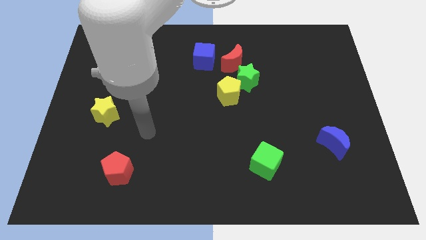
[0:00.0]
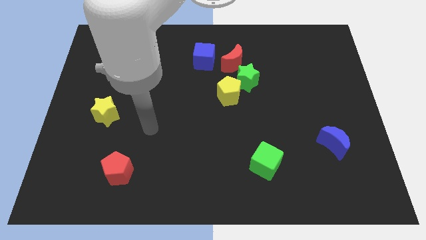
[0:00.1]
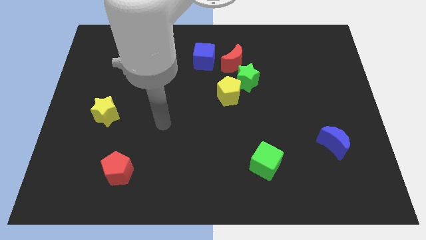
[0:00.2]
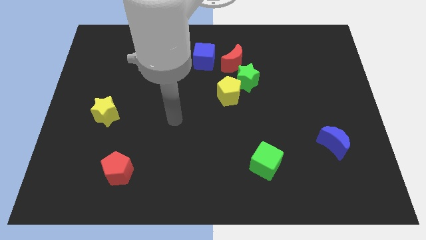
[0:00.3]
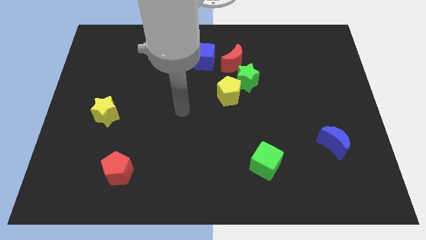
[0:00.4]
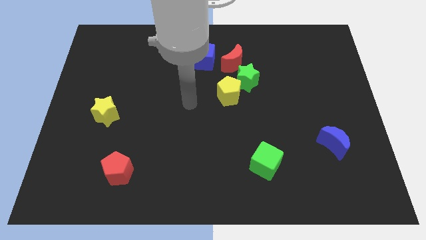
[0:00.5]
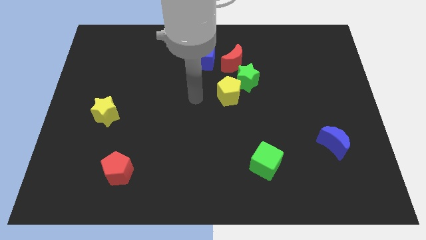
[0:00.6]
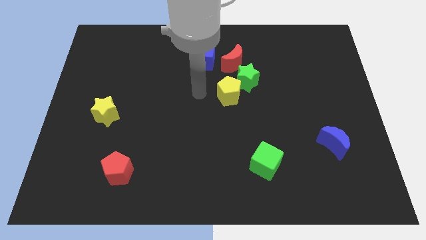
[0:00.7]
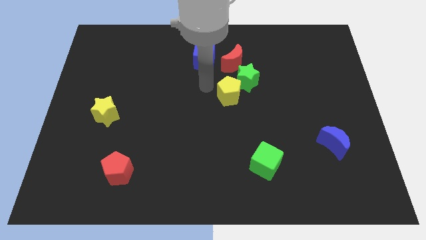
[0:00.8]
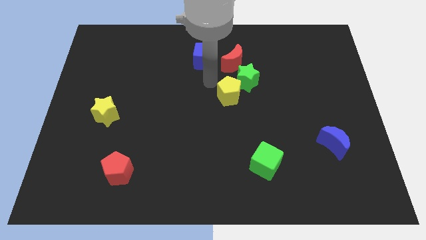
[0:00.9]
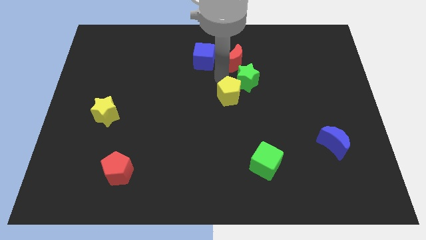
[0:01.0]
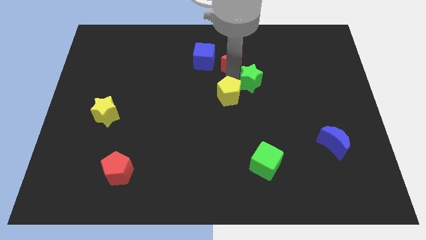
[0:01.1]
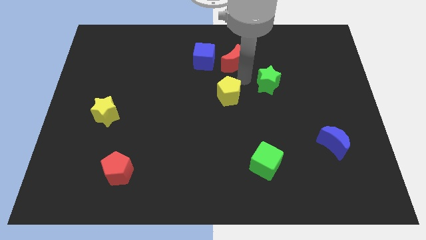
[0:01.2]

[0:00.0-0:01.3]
pull the yellow pentagon apart from the green star

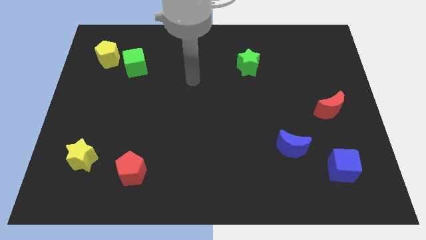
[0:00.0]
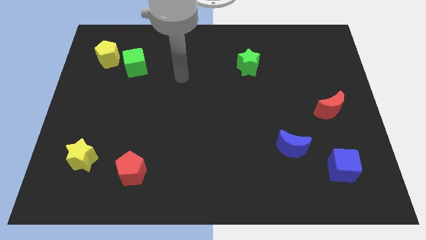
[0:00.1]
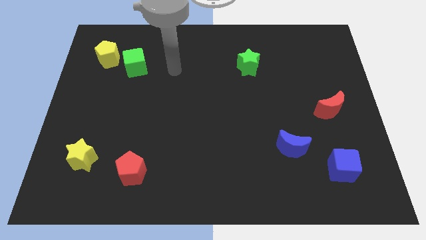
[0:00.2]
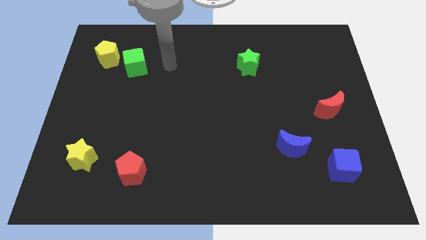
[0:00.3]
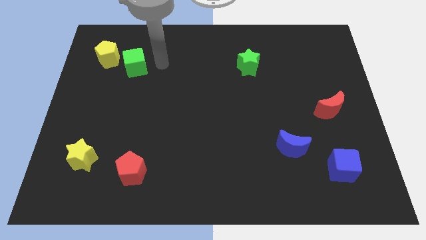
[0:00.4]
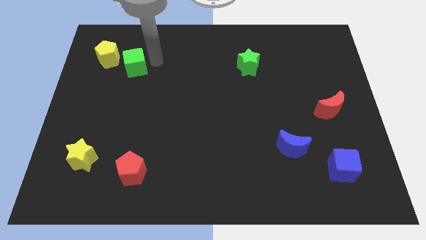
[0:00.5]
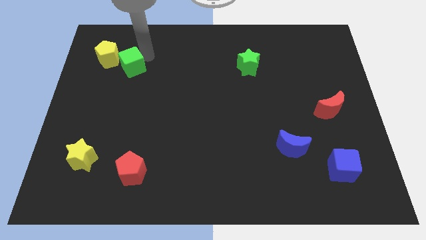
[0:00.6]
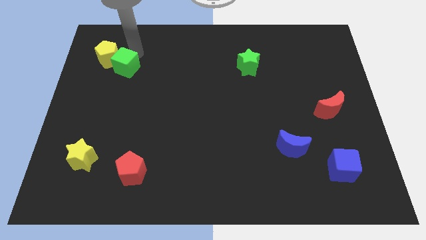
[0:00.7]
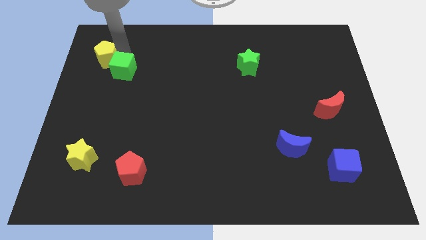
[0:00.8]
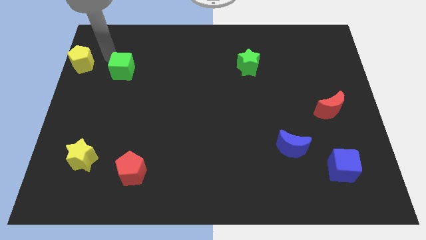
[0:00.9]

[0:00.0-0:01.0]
pull the green cube apart from the yellow pentagon

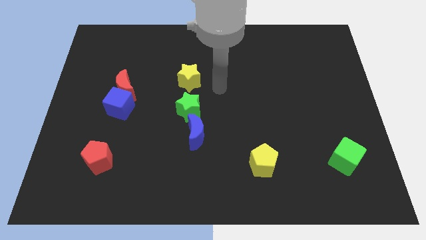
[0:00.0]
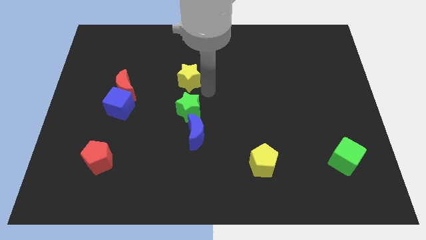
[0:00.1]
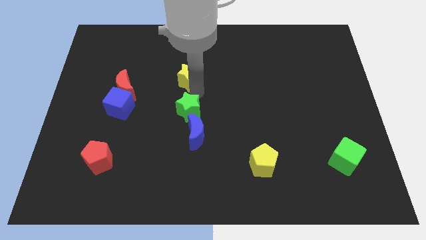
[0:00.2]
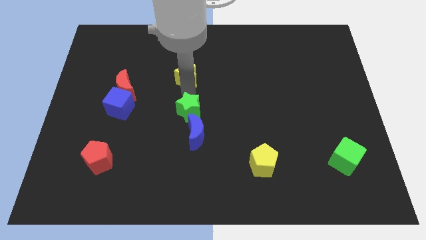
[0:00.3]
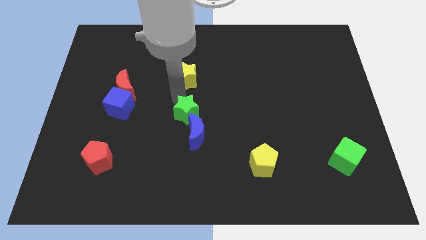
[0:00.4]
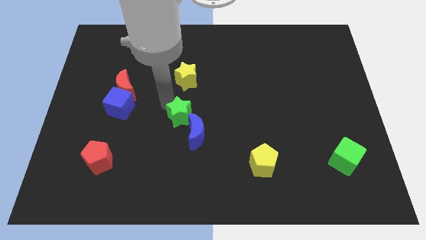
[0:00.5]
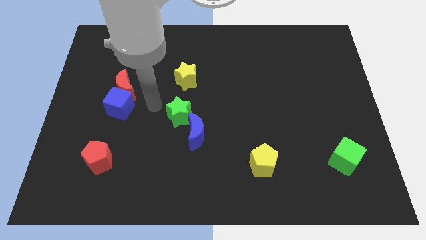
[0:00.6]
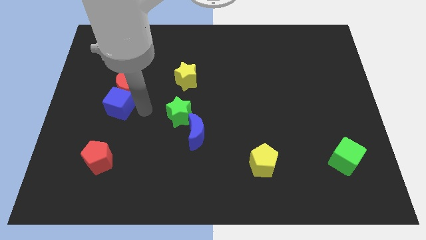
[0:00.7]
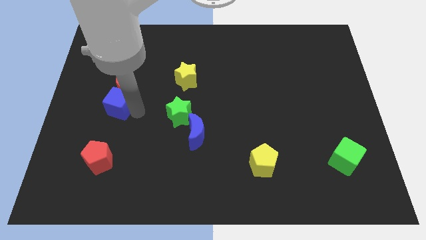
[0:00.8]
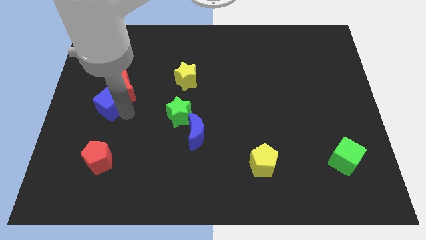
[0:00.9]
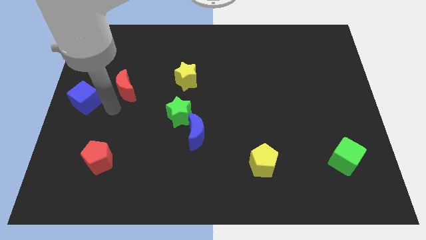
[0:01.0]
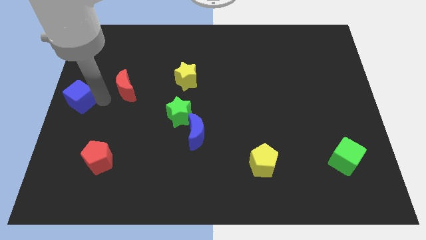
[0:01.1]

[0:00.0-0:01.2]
separate the red moon from the blue cube

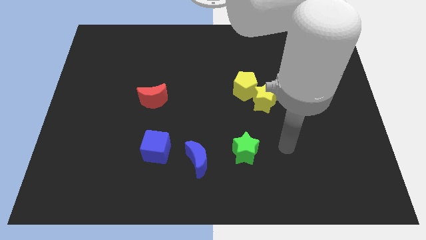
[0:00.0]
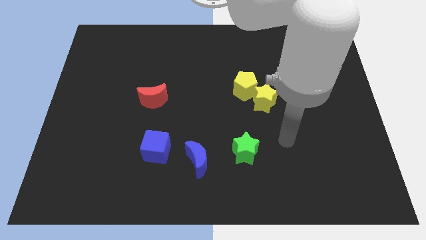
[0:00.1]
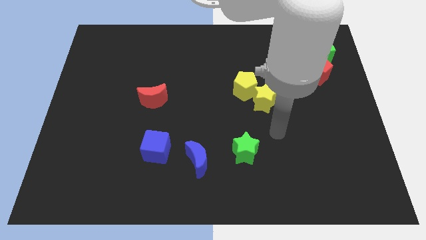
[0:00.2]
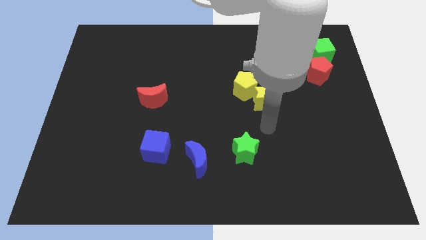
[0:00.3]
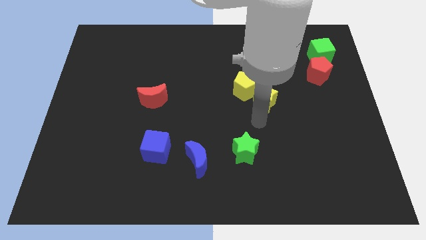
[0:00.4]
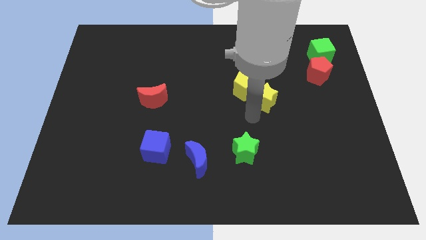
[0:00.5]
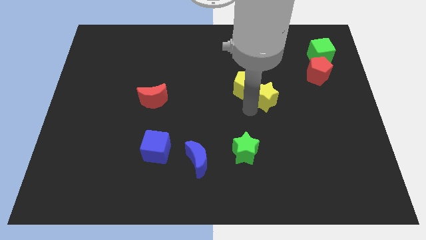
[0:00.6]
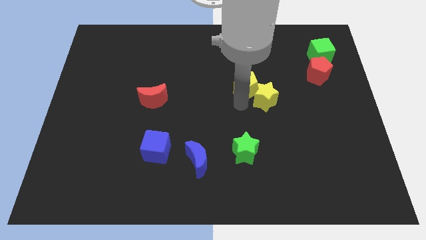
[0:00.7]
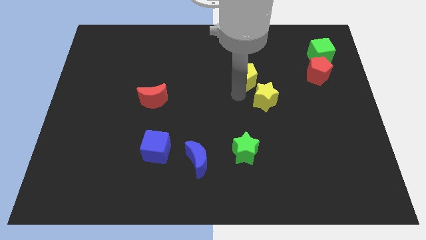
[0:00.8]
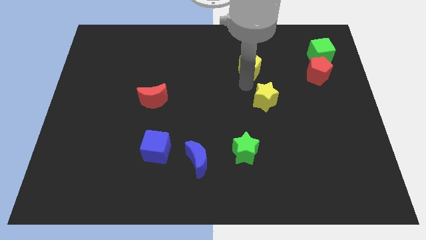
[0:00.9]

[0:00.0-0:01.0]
pull the yellow star apart from the yellow pentagon

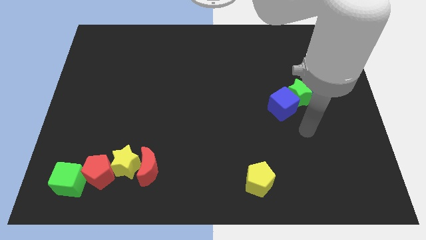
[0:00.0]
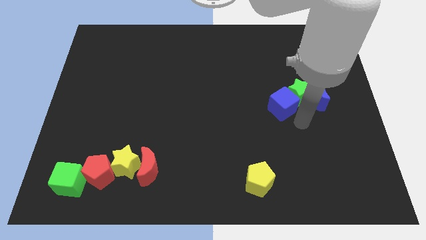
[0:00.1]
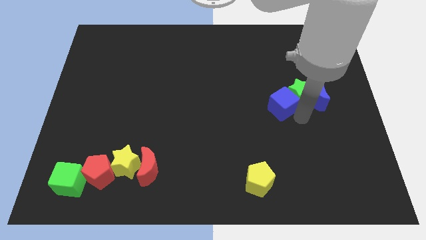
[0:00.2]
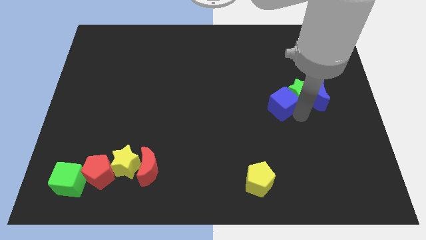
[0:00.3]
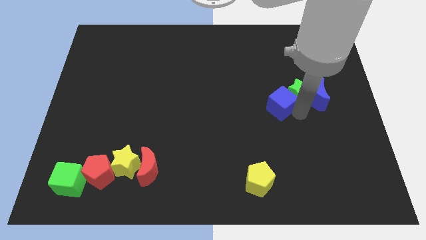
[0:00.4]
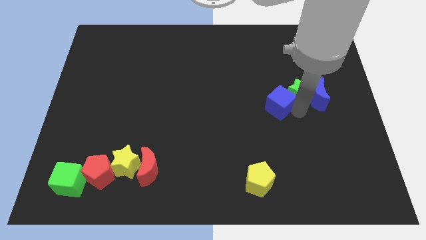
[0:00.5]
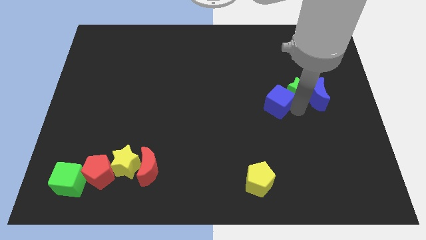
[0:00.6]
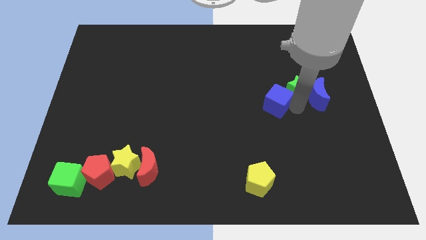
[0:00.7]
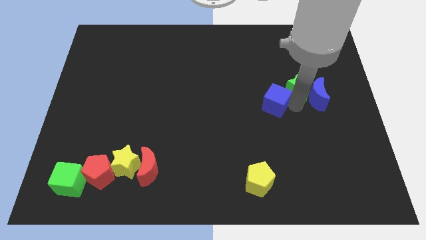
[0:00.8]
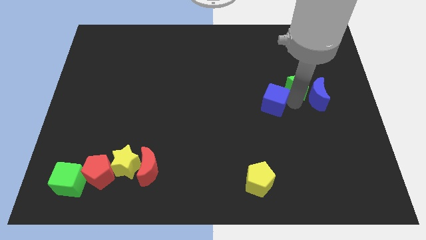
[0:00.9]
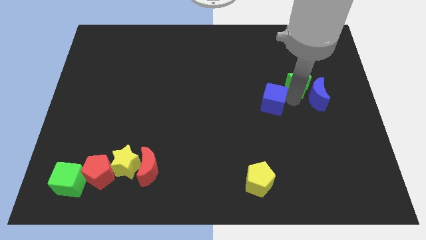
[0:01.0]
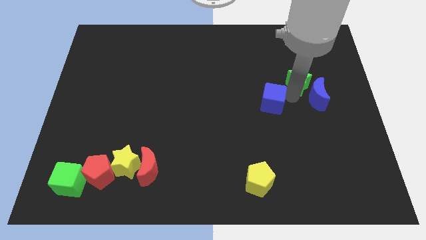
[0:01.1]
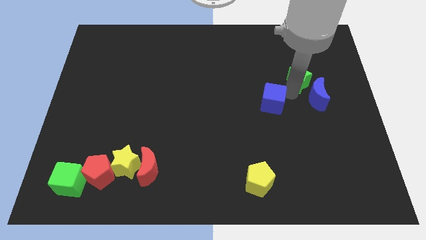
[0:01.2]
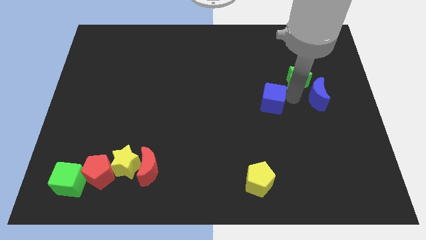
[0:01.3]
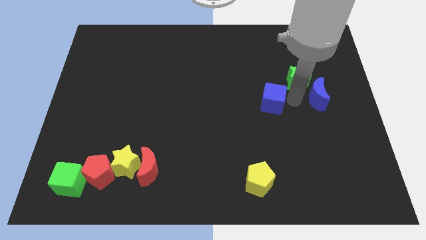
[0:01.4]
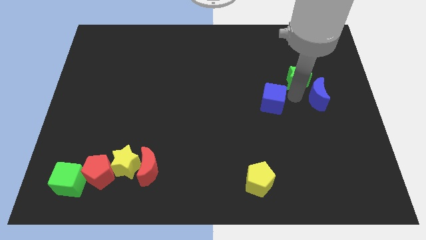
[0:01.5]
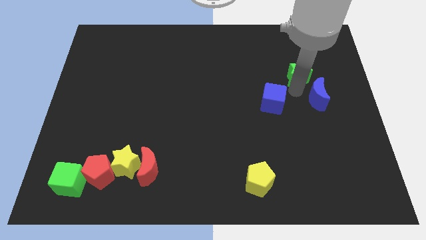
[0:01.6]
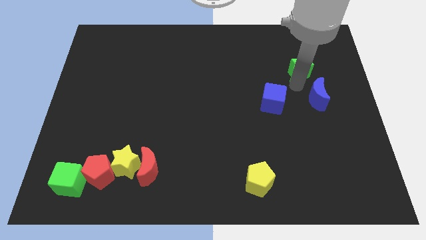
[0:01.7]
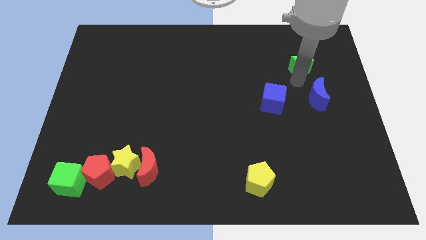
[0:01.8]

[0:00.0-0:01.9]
pull the green star apart from the blue moon and blue cube

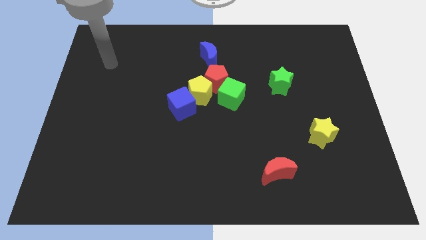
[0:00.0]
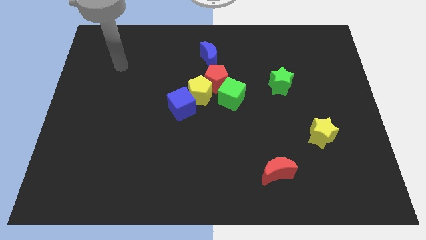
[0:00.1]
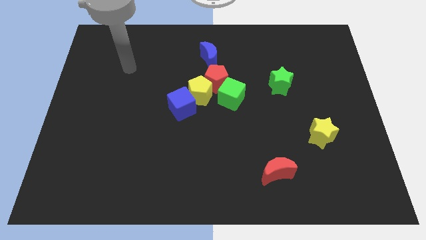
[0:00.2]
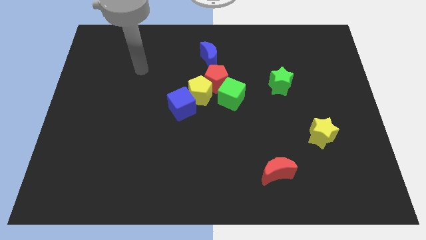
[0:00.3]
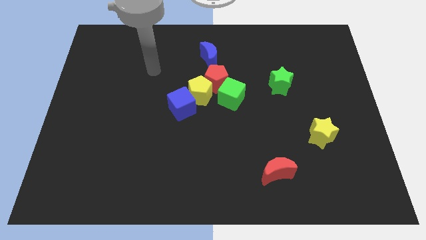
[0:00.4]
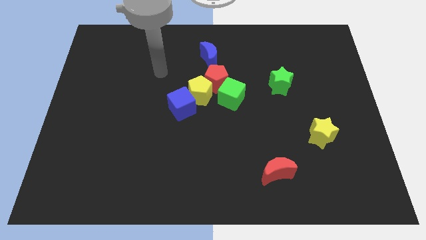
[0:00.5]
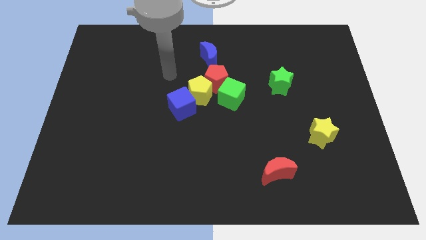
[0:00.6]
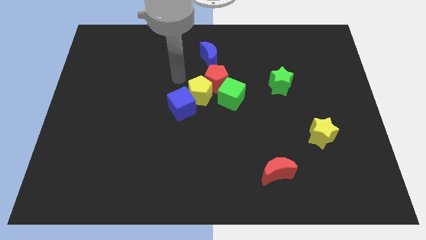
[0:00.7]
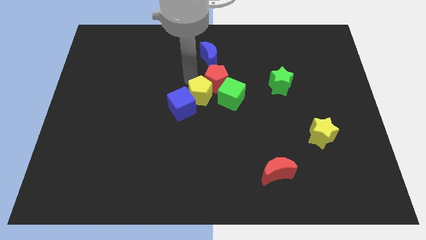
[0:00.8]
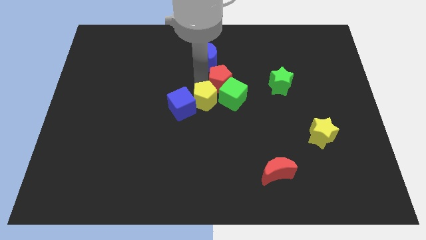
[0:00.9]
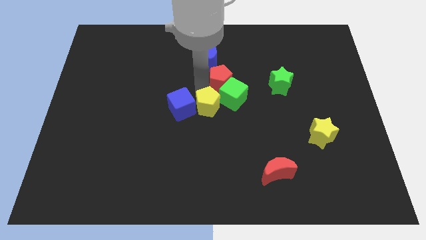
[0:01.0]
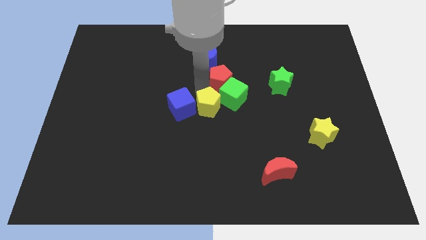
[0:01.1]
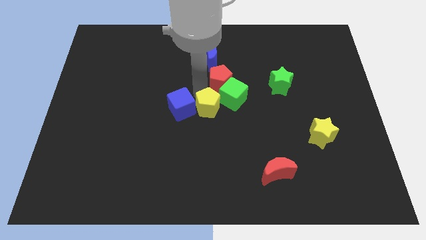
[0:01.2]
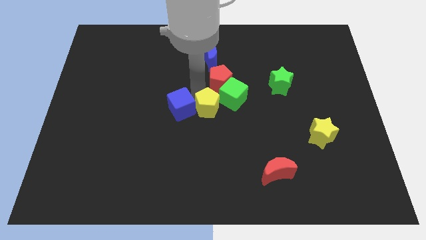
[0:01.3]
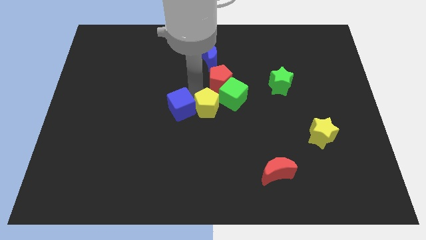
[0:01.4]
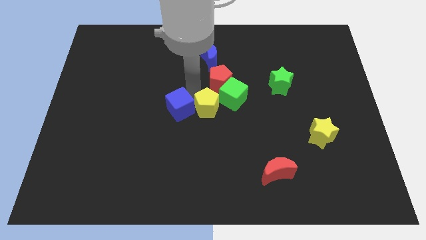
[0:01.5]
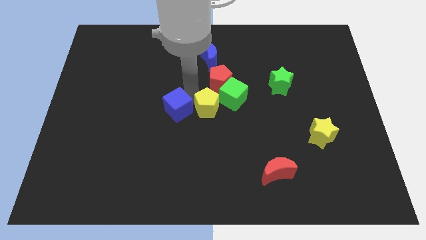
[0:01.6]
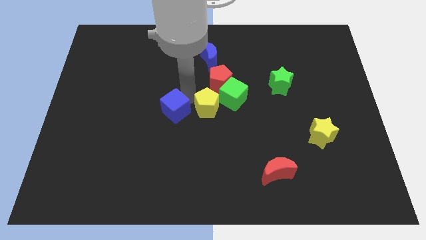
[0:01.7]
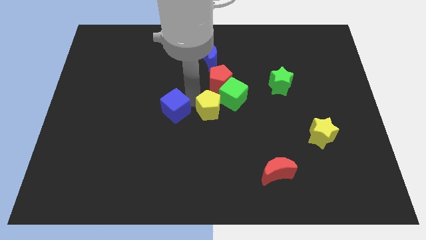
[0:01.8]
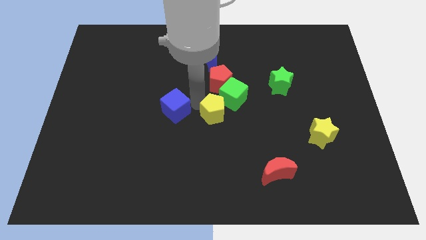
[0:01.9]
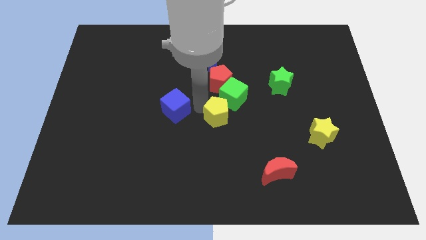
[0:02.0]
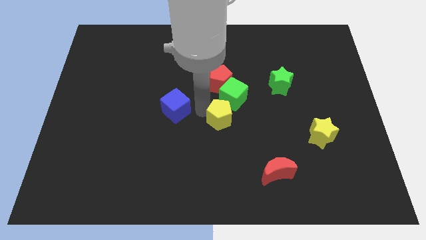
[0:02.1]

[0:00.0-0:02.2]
separate the blue cube from the yellow pentagon

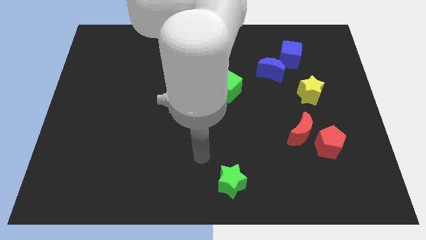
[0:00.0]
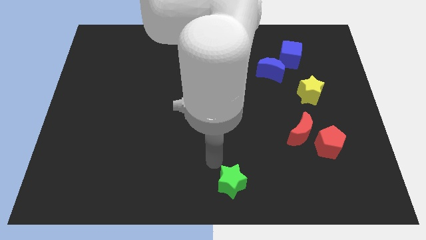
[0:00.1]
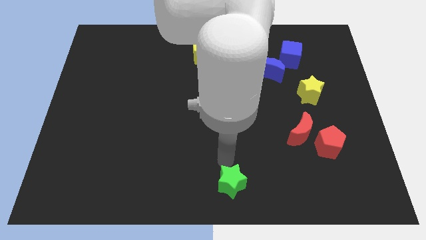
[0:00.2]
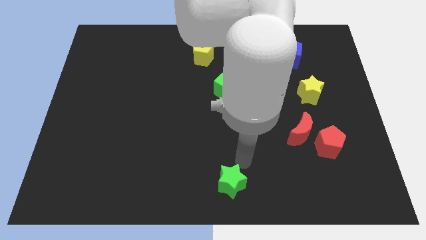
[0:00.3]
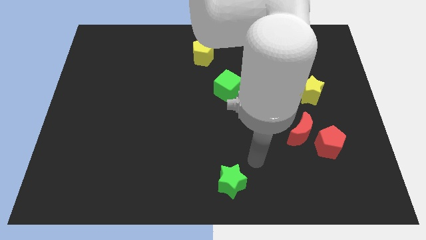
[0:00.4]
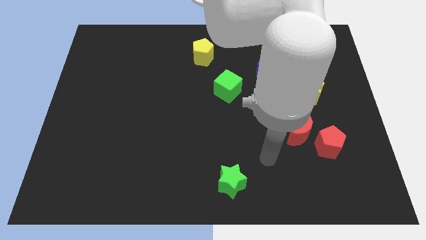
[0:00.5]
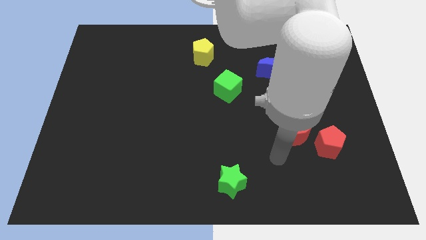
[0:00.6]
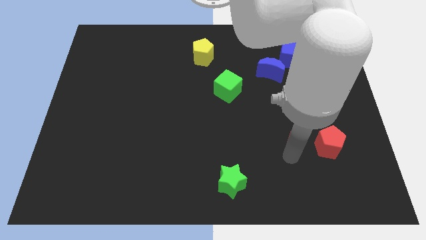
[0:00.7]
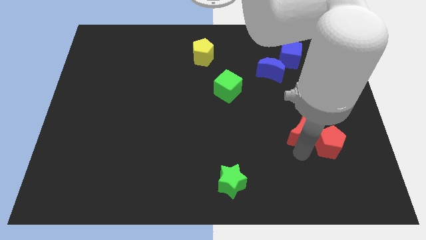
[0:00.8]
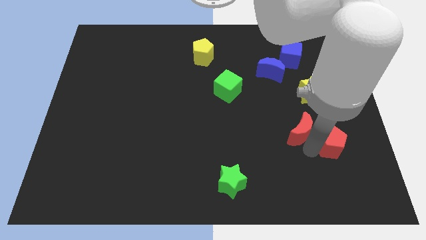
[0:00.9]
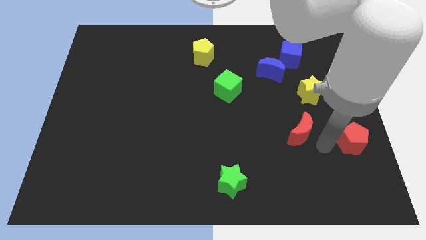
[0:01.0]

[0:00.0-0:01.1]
pull the red moon apart from the red pentagon
